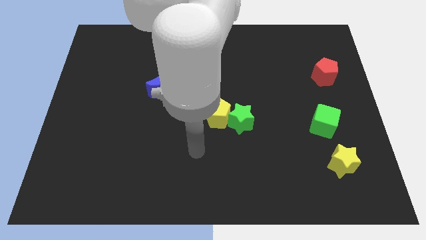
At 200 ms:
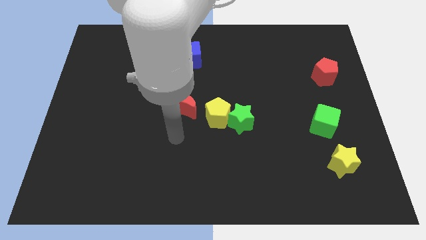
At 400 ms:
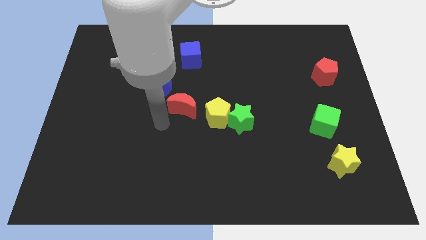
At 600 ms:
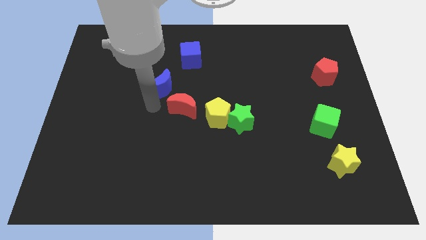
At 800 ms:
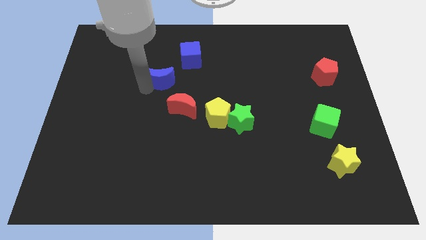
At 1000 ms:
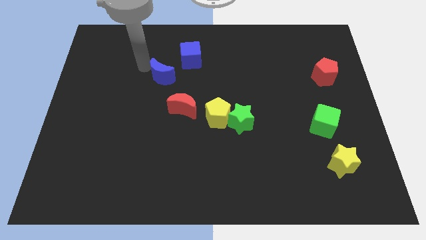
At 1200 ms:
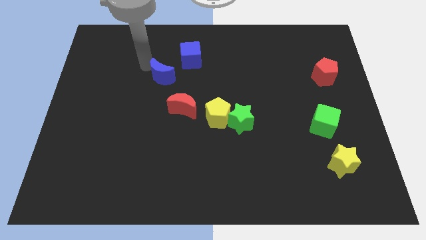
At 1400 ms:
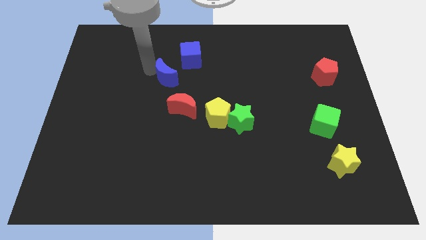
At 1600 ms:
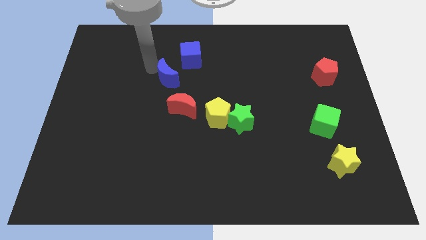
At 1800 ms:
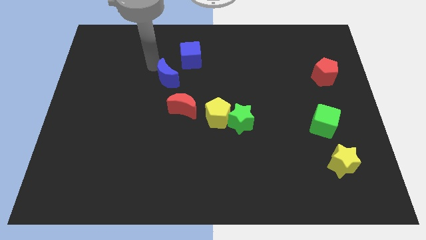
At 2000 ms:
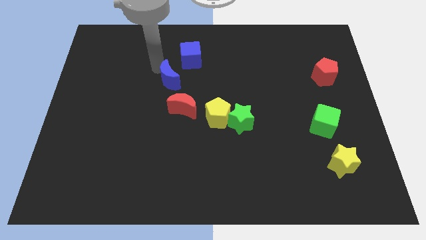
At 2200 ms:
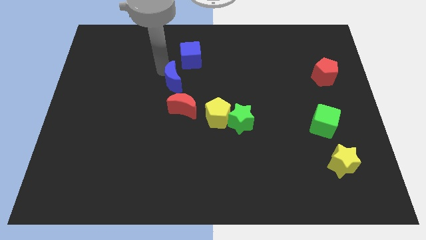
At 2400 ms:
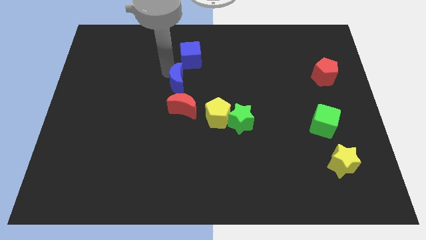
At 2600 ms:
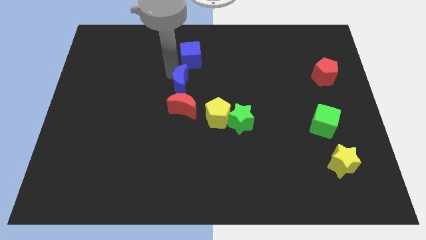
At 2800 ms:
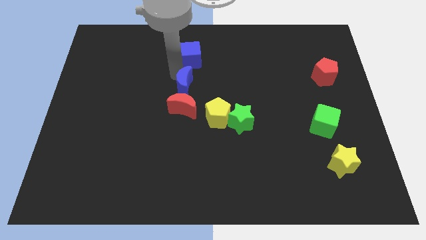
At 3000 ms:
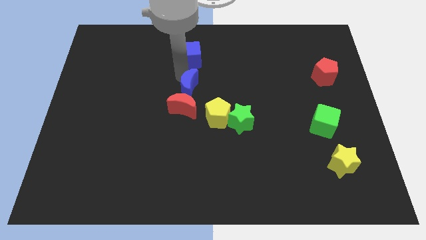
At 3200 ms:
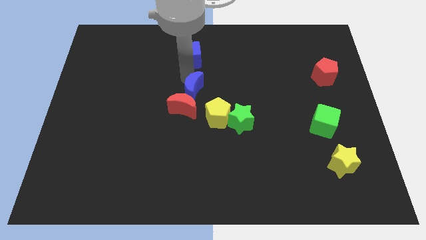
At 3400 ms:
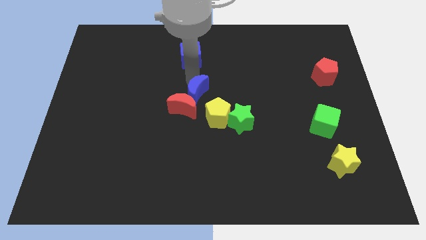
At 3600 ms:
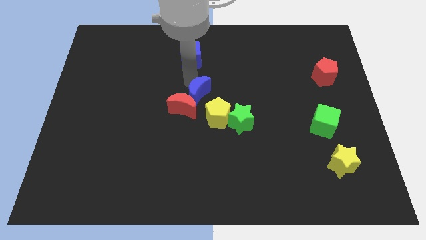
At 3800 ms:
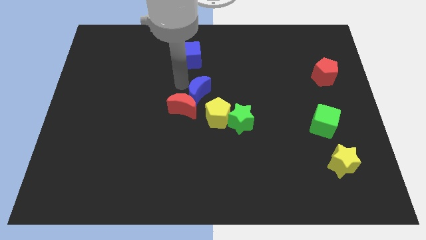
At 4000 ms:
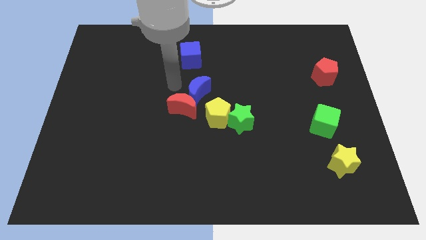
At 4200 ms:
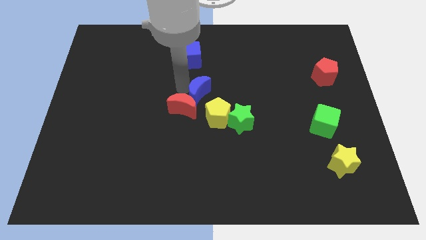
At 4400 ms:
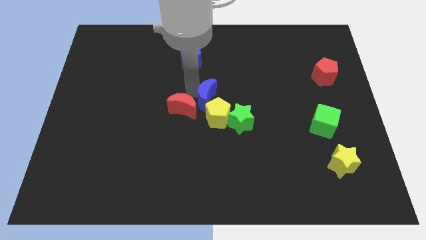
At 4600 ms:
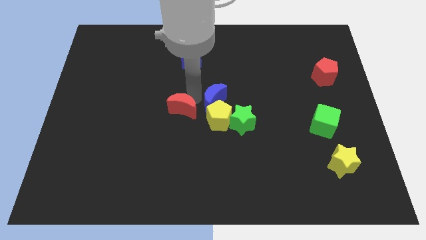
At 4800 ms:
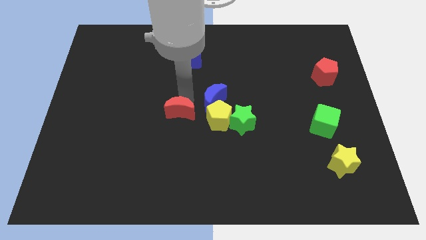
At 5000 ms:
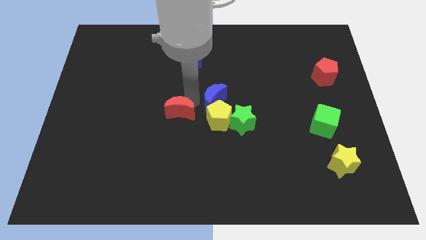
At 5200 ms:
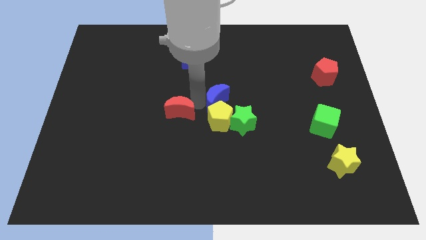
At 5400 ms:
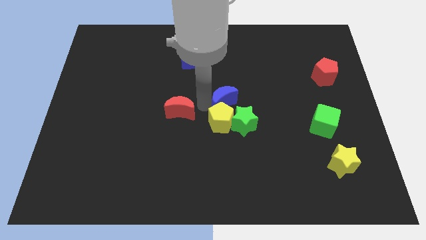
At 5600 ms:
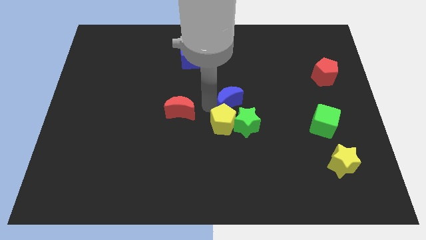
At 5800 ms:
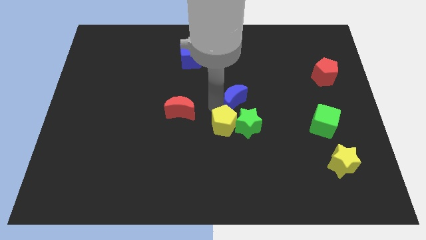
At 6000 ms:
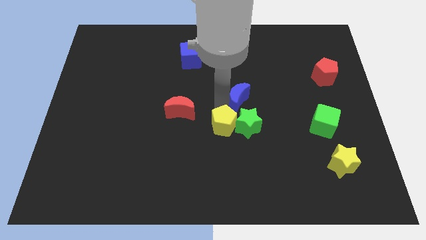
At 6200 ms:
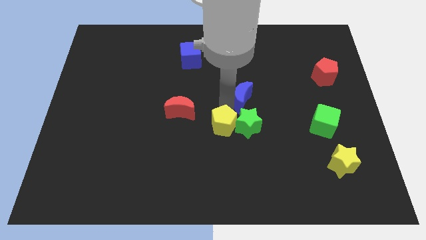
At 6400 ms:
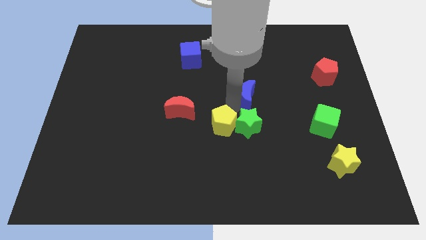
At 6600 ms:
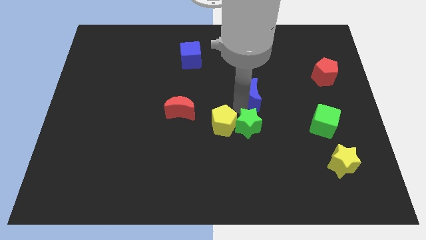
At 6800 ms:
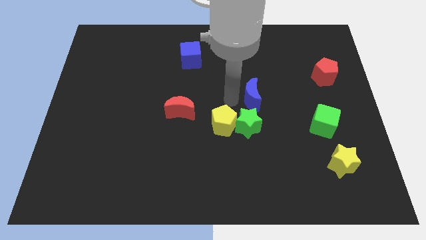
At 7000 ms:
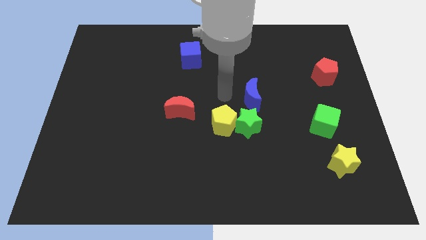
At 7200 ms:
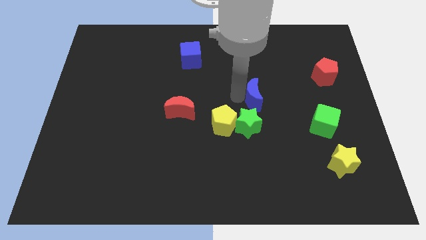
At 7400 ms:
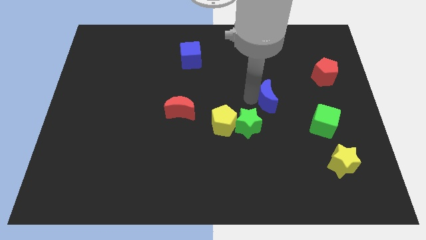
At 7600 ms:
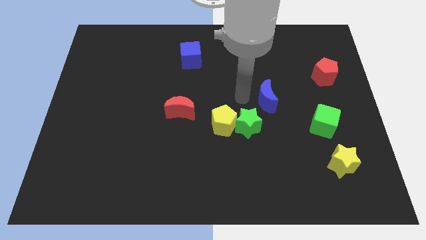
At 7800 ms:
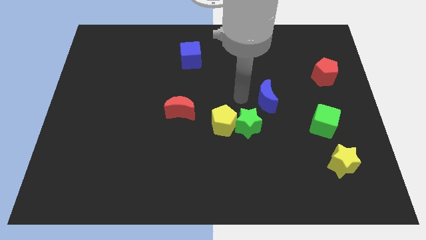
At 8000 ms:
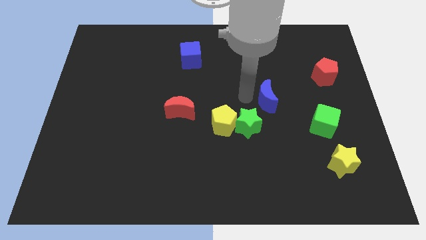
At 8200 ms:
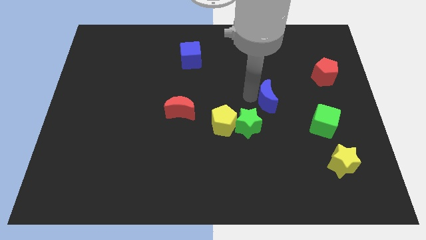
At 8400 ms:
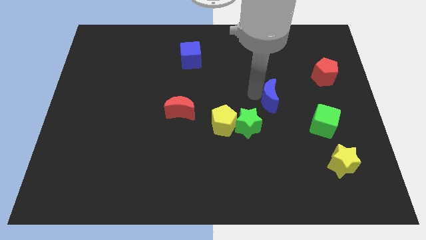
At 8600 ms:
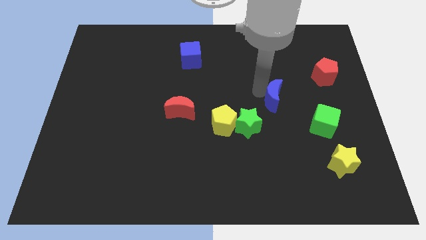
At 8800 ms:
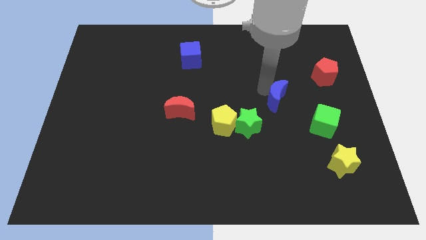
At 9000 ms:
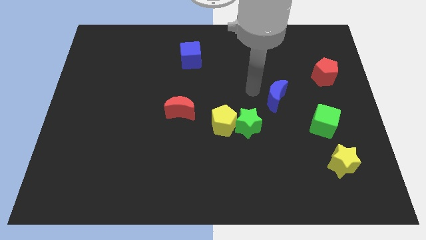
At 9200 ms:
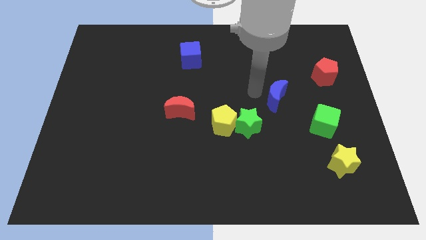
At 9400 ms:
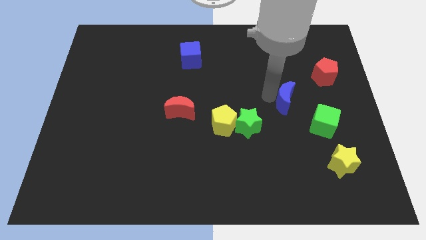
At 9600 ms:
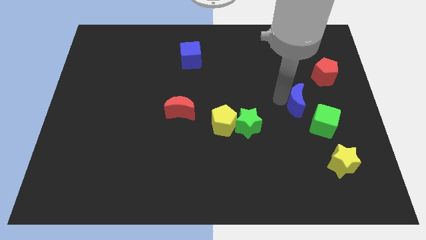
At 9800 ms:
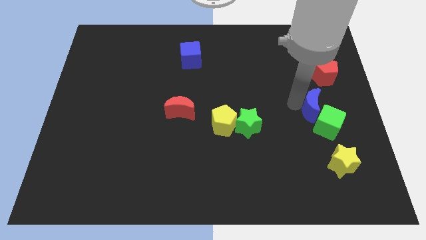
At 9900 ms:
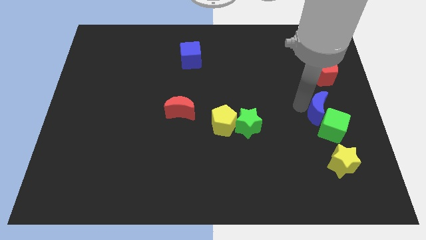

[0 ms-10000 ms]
move the blue moon to the top of the yellow star
